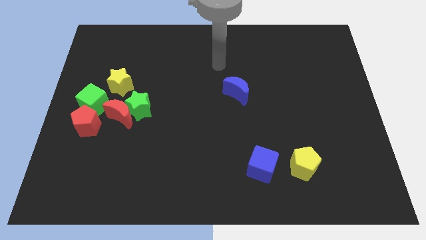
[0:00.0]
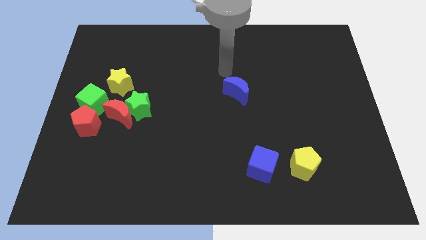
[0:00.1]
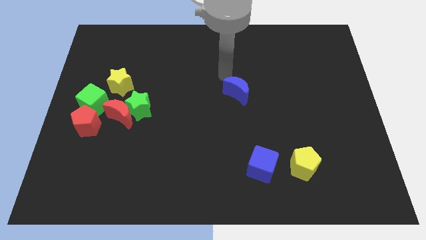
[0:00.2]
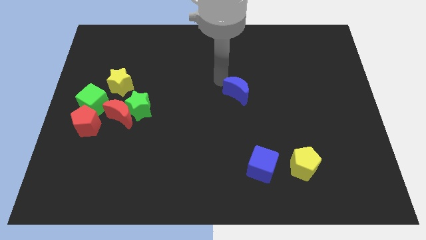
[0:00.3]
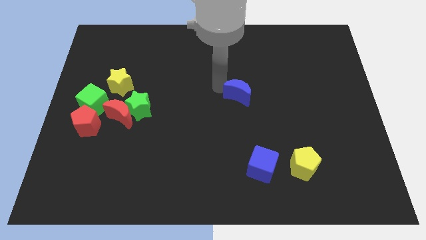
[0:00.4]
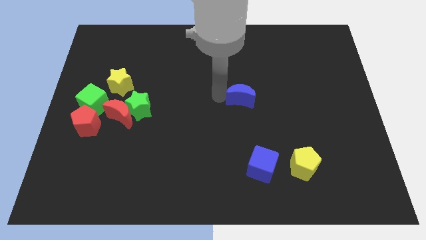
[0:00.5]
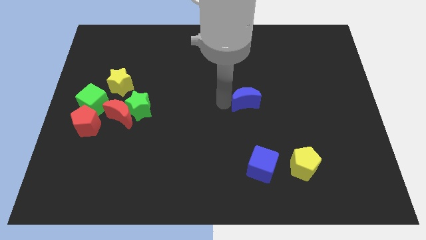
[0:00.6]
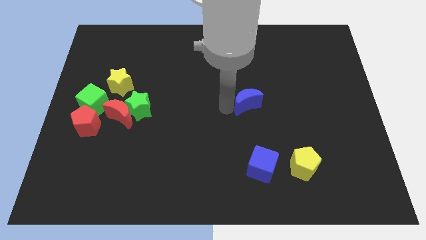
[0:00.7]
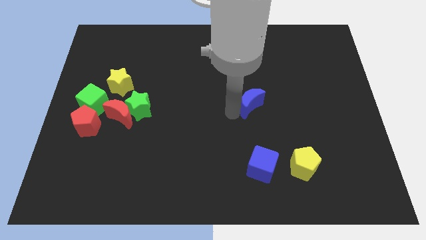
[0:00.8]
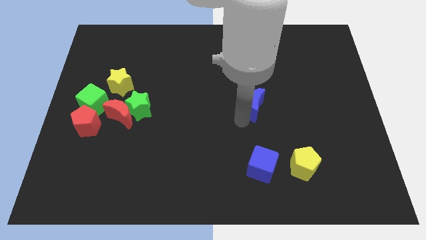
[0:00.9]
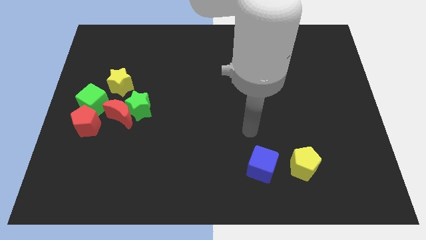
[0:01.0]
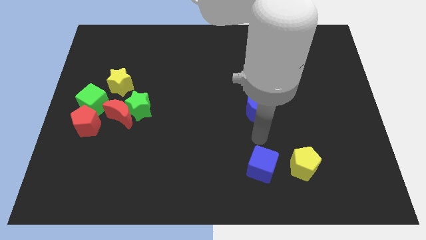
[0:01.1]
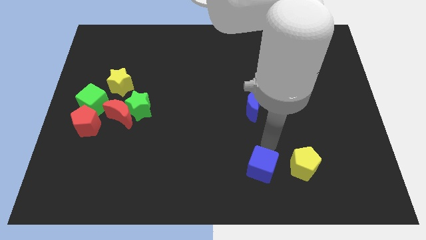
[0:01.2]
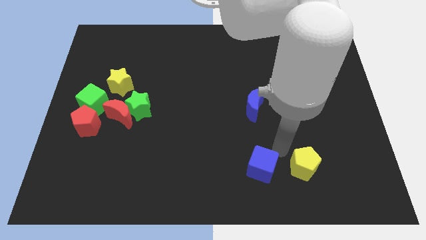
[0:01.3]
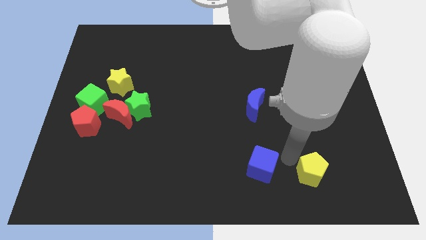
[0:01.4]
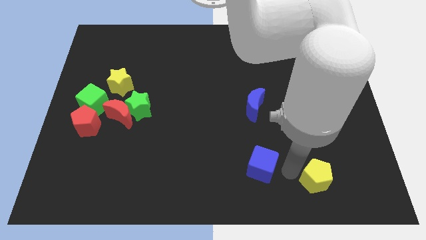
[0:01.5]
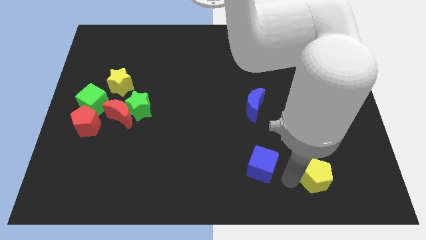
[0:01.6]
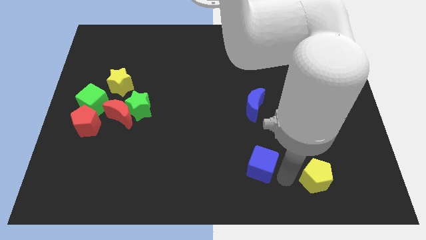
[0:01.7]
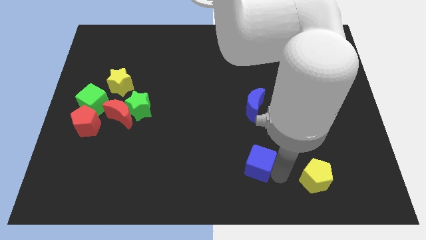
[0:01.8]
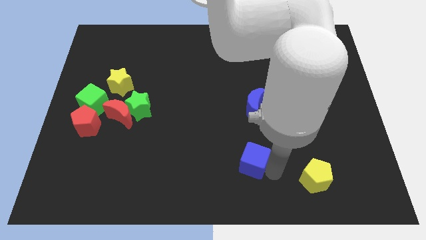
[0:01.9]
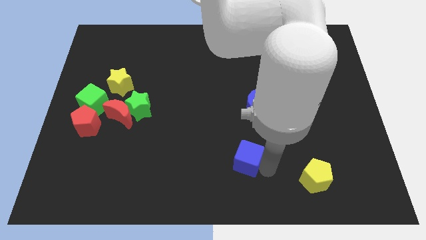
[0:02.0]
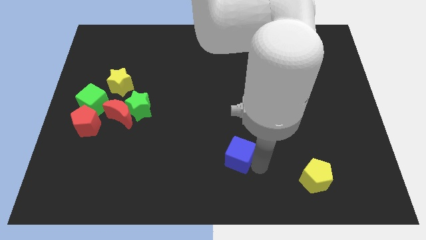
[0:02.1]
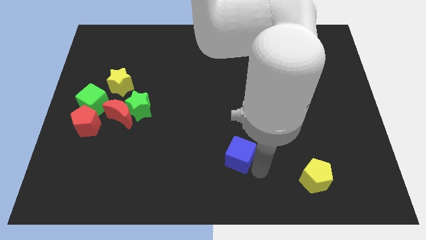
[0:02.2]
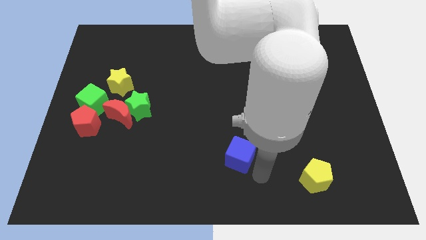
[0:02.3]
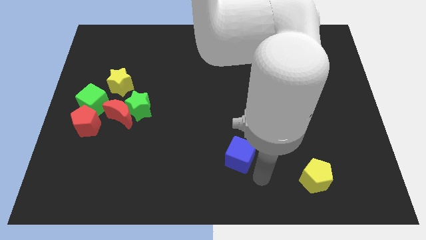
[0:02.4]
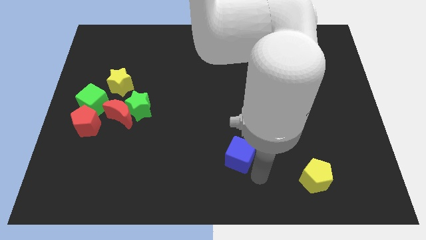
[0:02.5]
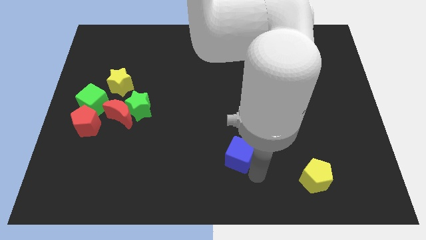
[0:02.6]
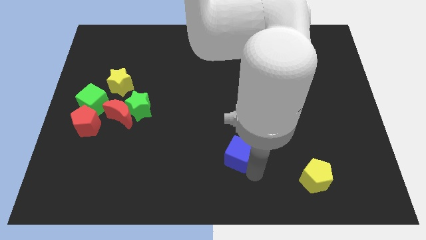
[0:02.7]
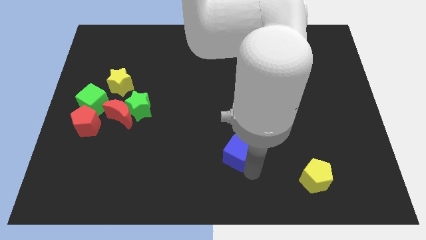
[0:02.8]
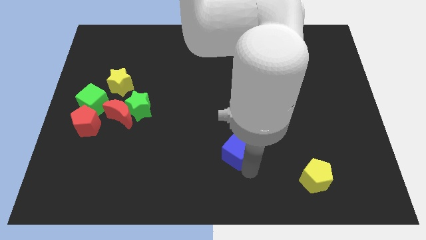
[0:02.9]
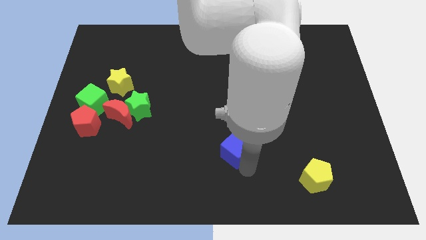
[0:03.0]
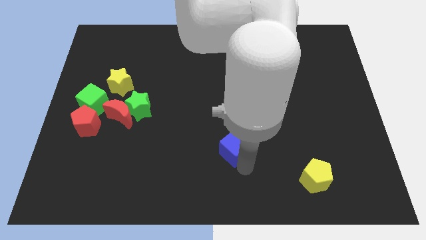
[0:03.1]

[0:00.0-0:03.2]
slide the blue cube upwards and to the left a bit

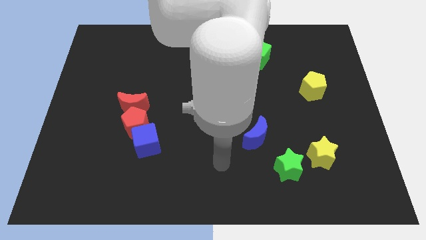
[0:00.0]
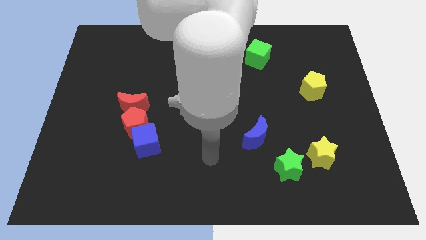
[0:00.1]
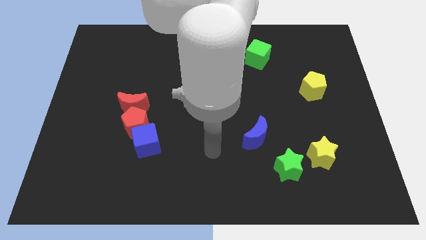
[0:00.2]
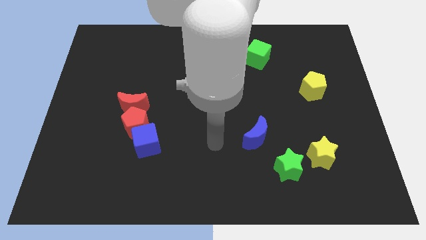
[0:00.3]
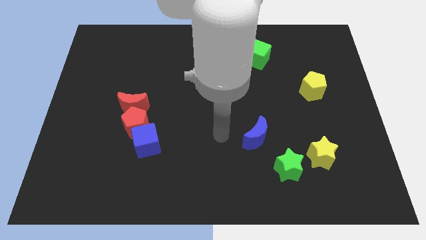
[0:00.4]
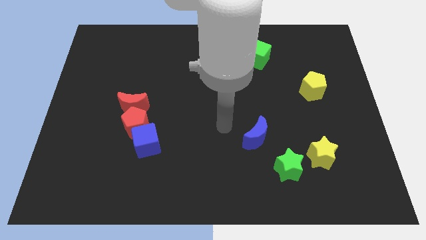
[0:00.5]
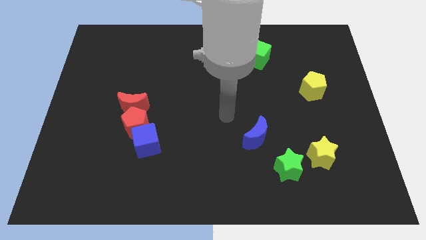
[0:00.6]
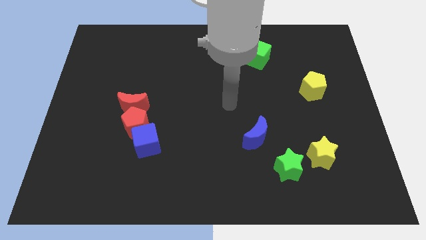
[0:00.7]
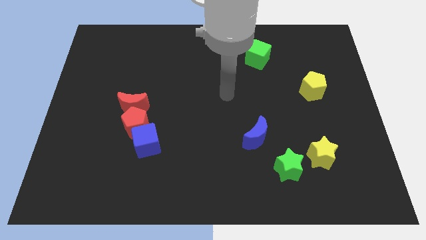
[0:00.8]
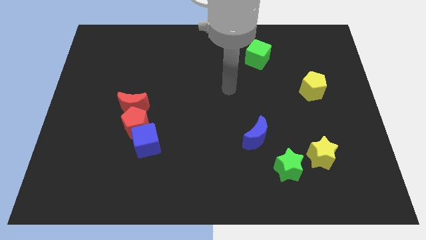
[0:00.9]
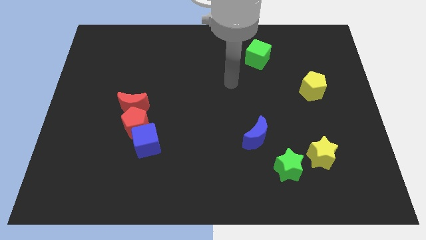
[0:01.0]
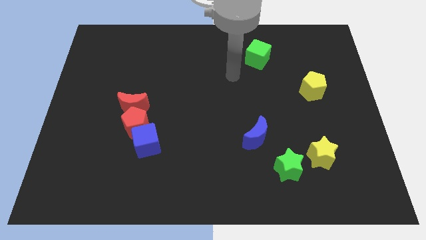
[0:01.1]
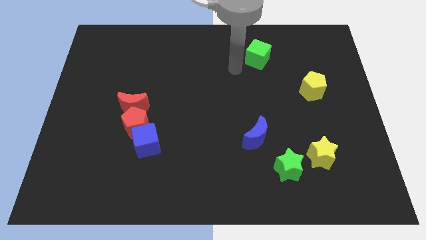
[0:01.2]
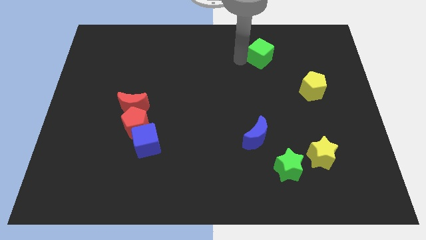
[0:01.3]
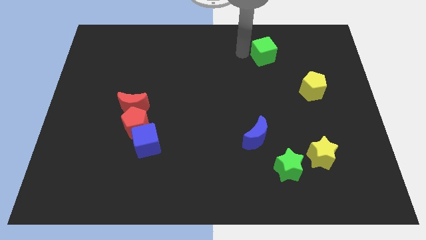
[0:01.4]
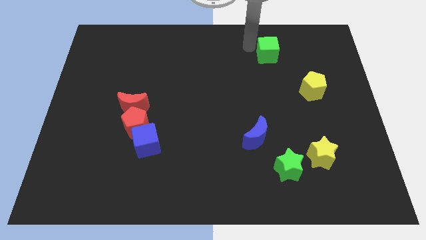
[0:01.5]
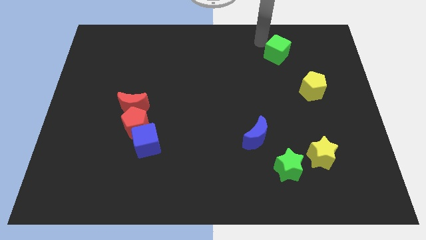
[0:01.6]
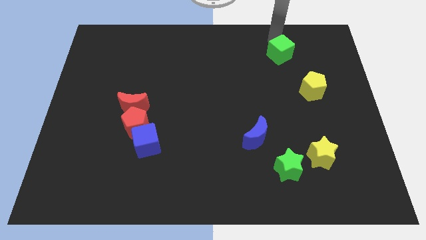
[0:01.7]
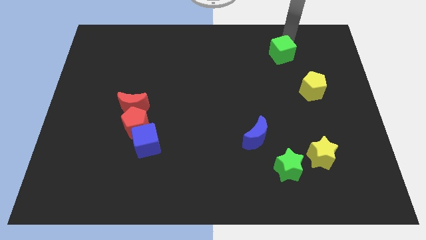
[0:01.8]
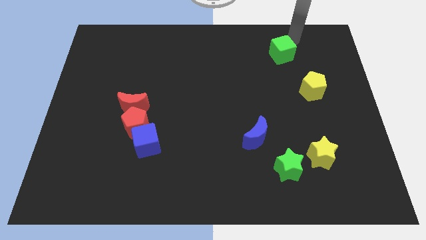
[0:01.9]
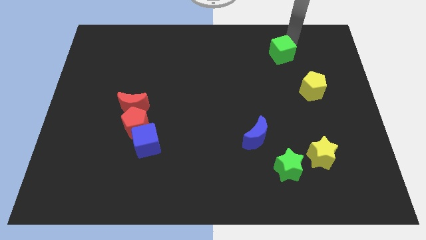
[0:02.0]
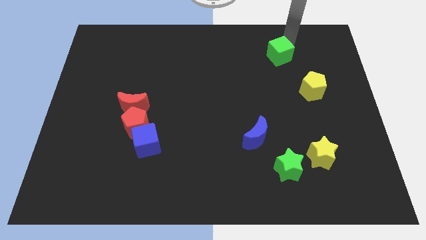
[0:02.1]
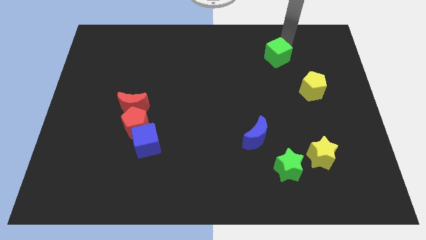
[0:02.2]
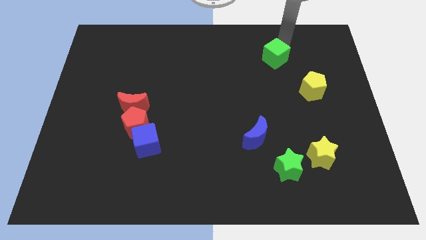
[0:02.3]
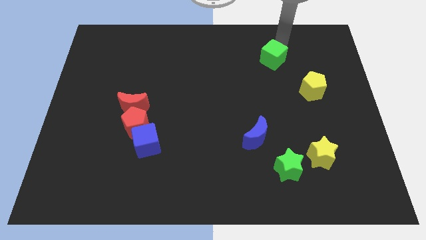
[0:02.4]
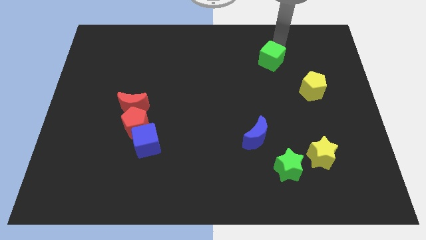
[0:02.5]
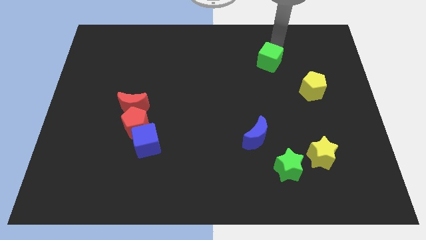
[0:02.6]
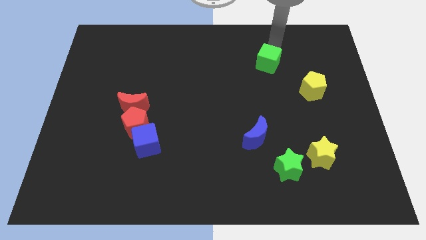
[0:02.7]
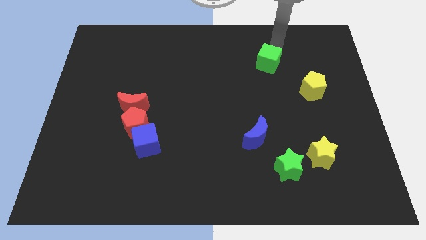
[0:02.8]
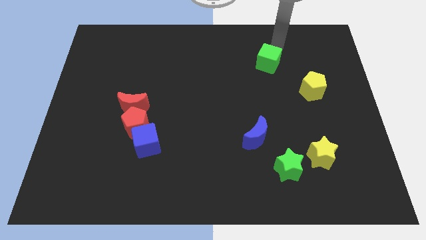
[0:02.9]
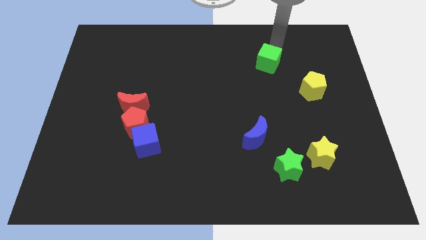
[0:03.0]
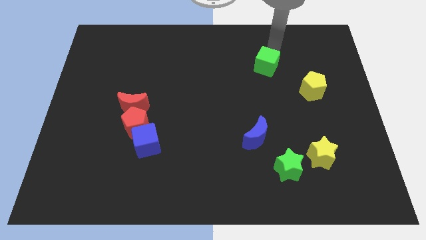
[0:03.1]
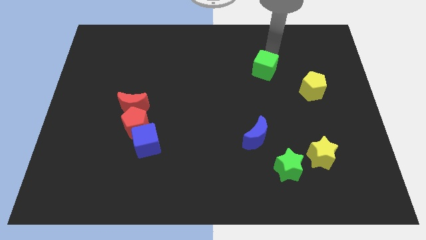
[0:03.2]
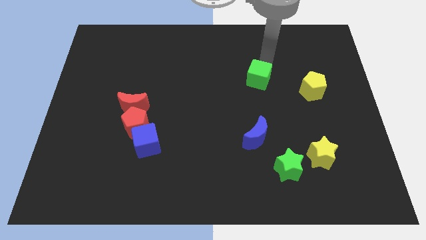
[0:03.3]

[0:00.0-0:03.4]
push the green cube a bit down

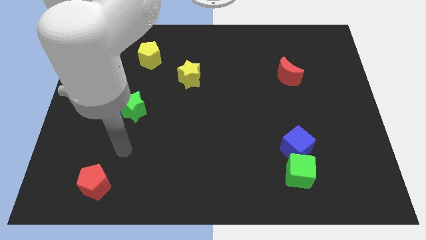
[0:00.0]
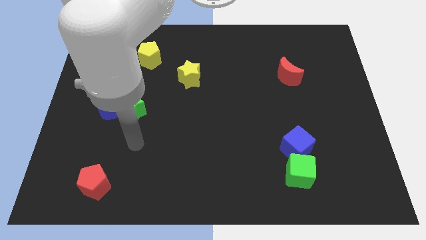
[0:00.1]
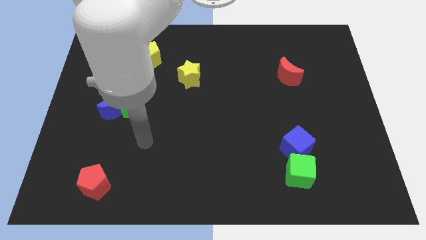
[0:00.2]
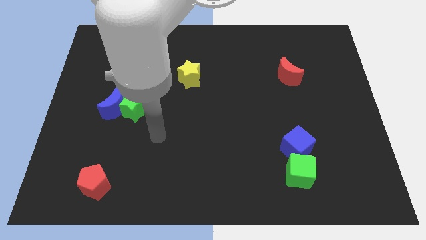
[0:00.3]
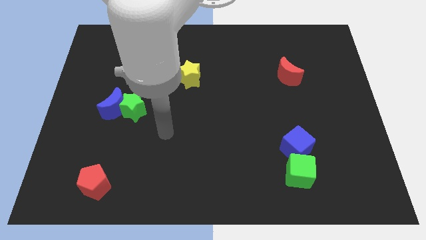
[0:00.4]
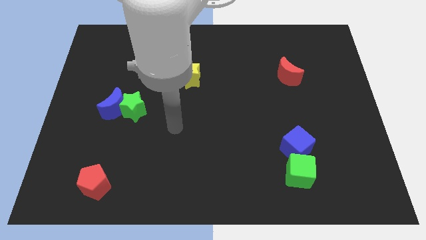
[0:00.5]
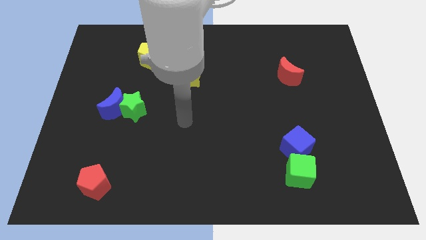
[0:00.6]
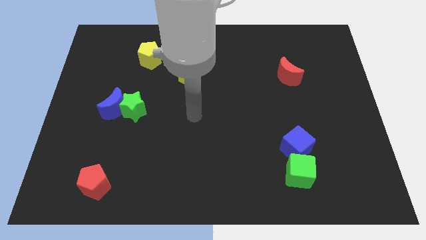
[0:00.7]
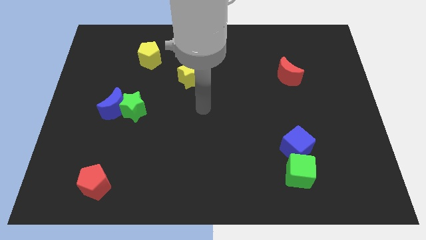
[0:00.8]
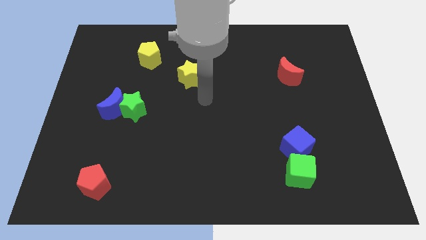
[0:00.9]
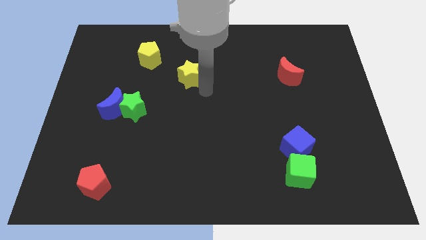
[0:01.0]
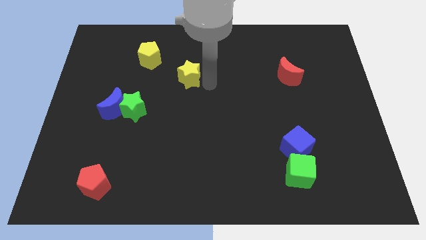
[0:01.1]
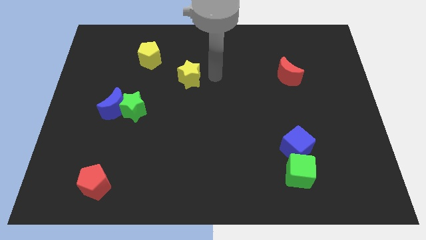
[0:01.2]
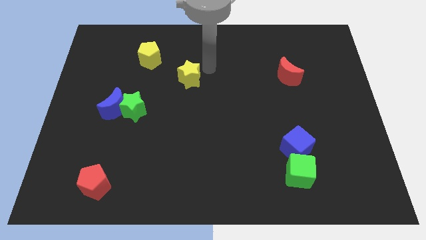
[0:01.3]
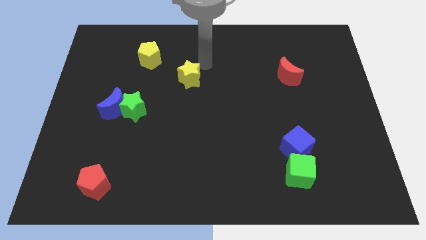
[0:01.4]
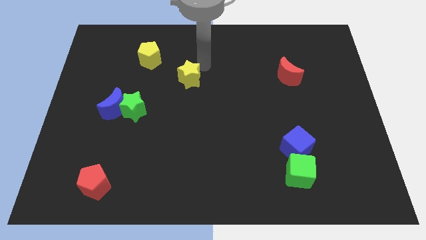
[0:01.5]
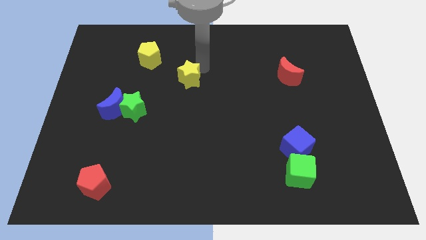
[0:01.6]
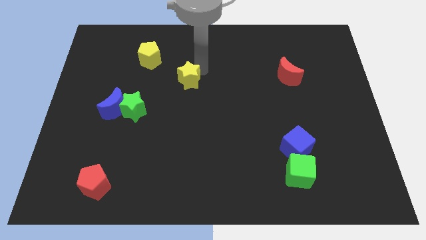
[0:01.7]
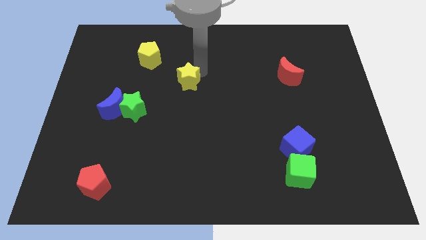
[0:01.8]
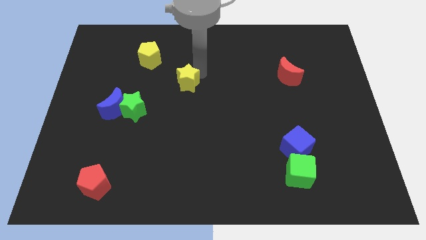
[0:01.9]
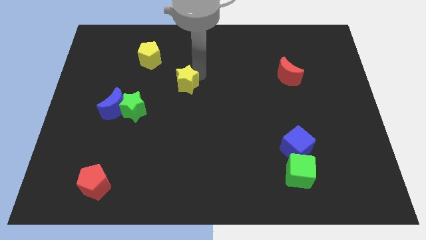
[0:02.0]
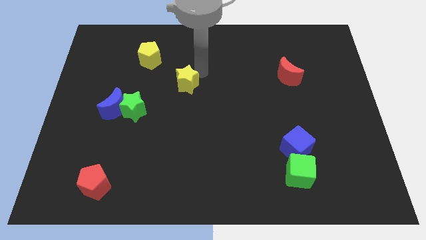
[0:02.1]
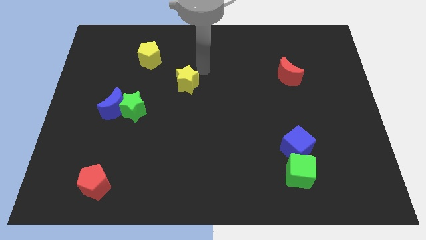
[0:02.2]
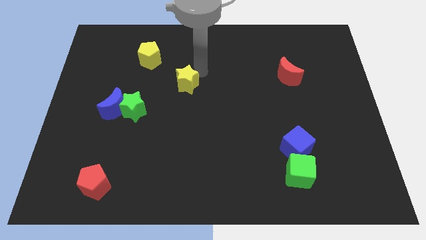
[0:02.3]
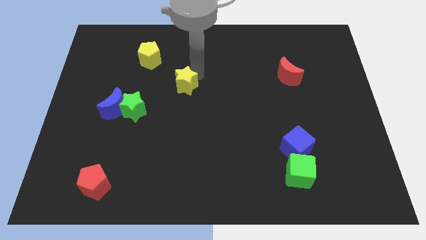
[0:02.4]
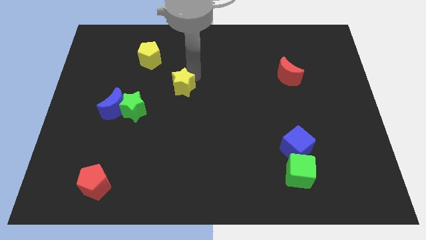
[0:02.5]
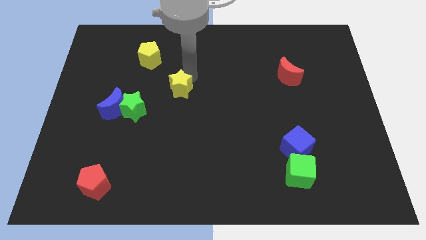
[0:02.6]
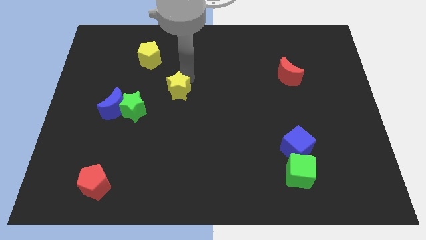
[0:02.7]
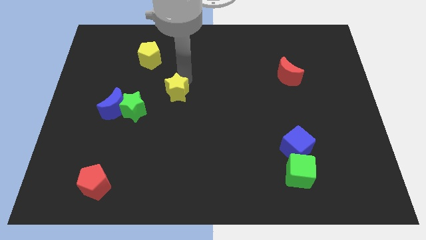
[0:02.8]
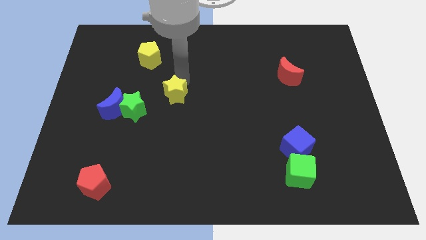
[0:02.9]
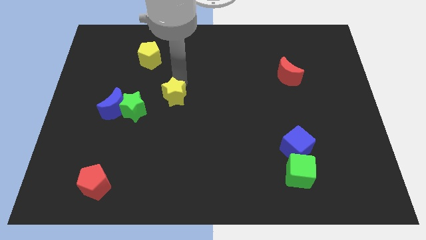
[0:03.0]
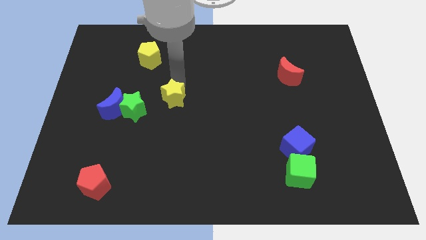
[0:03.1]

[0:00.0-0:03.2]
move the yellow star a little down and to the left
